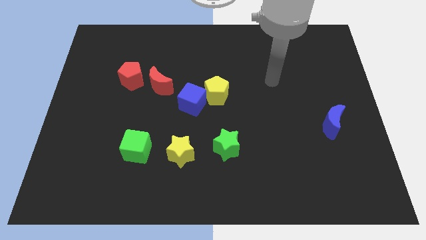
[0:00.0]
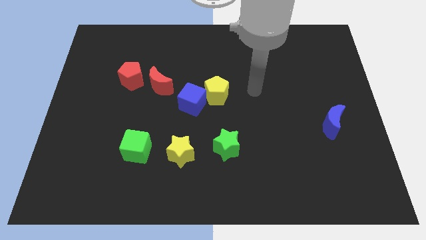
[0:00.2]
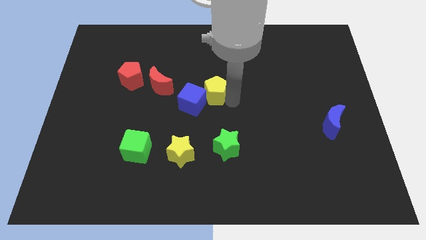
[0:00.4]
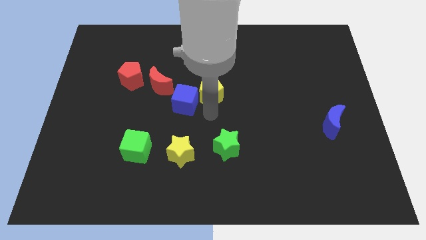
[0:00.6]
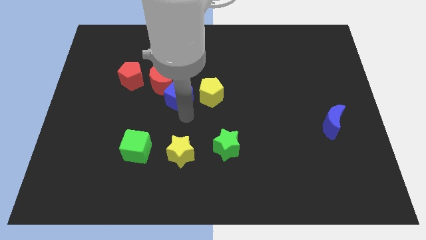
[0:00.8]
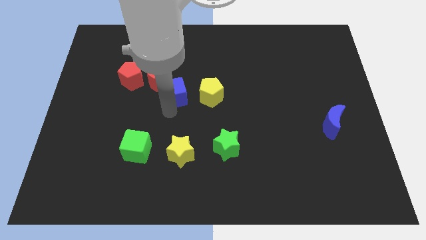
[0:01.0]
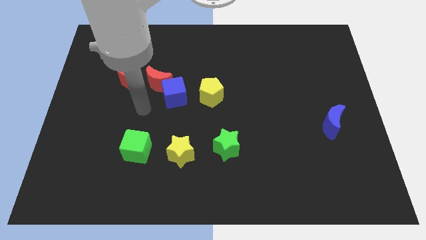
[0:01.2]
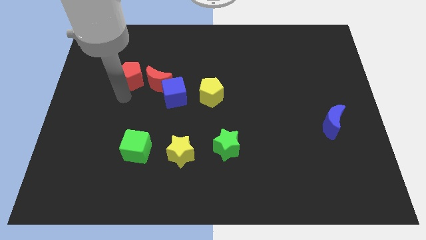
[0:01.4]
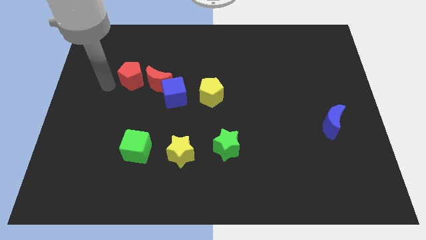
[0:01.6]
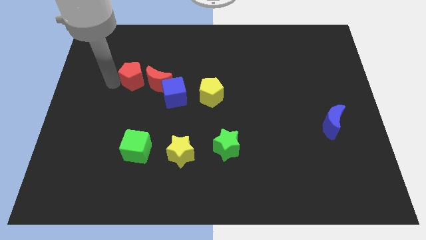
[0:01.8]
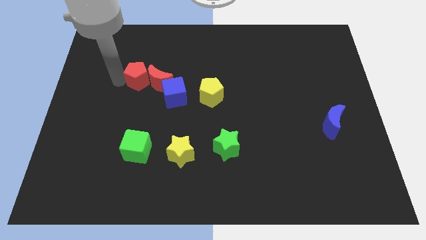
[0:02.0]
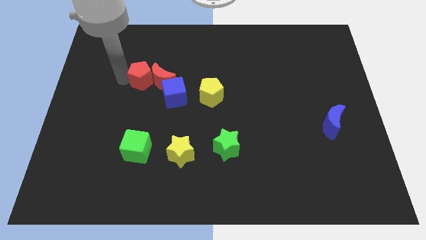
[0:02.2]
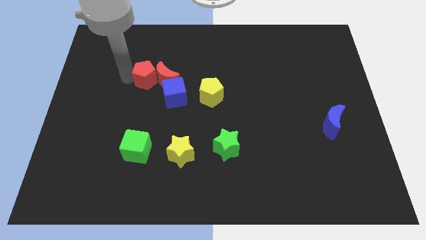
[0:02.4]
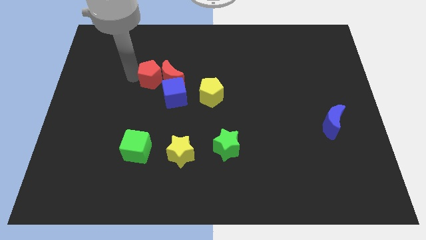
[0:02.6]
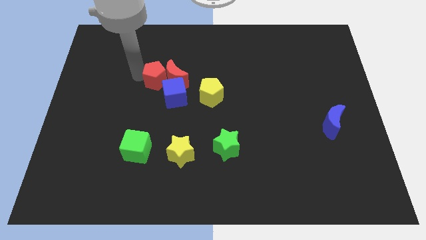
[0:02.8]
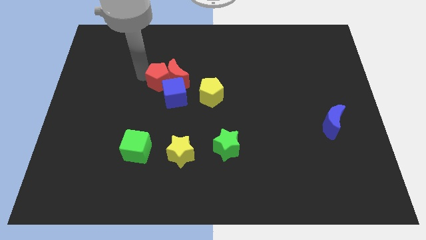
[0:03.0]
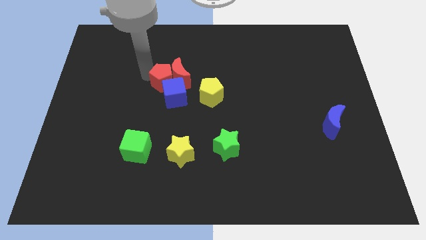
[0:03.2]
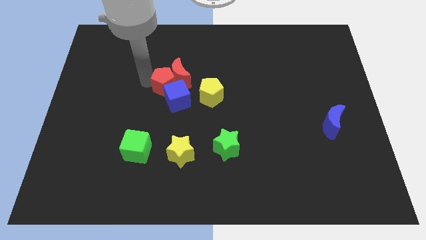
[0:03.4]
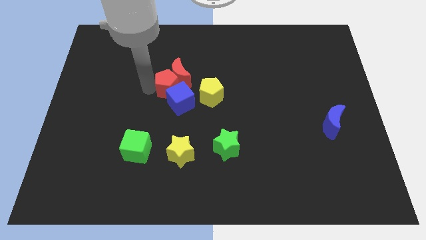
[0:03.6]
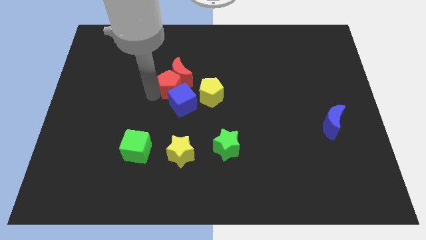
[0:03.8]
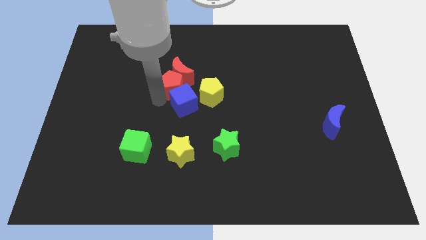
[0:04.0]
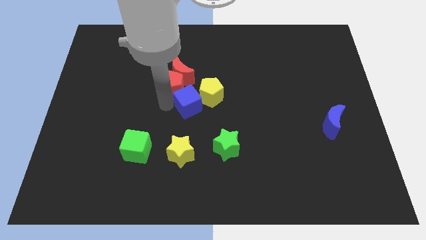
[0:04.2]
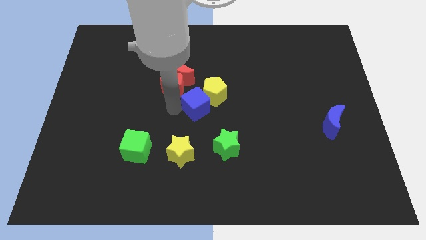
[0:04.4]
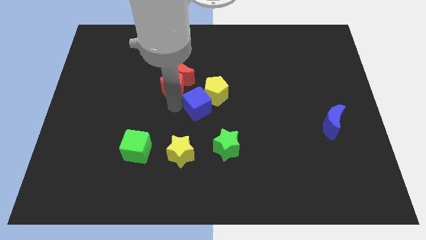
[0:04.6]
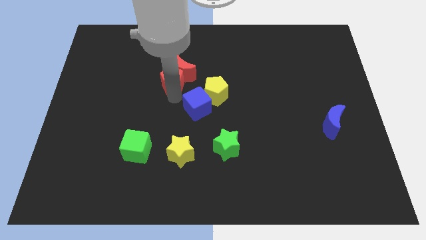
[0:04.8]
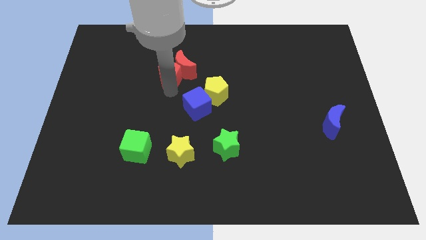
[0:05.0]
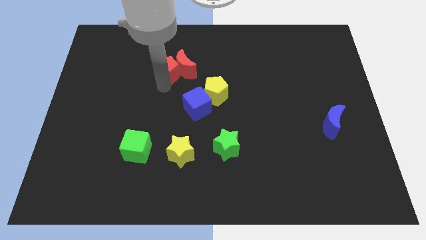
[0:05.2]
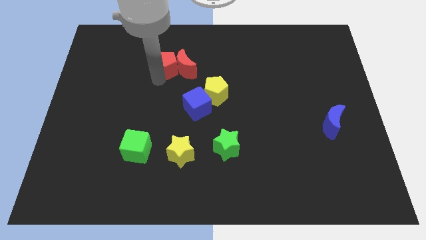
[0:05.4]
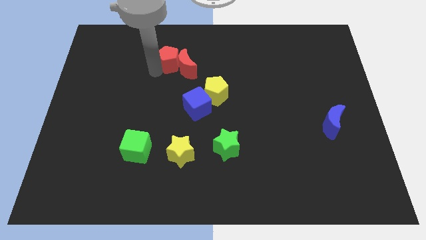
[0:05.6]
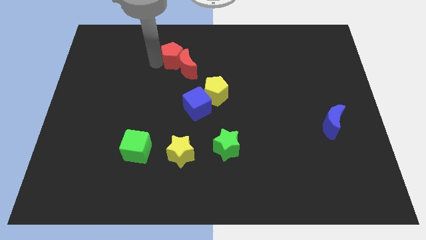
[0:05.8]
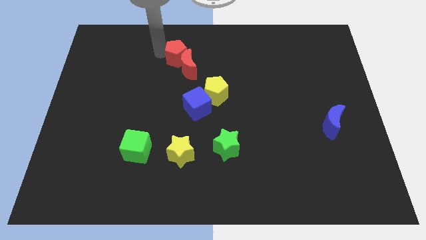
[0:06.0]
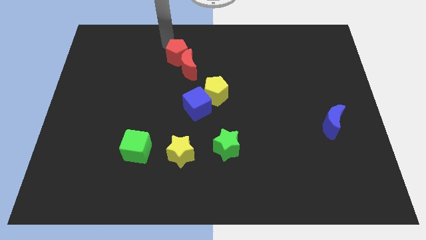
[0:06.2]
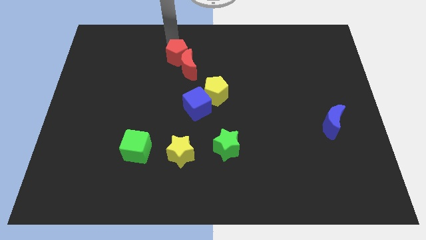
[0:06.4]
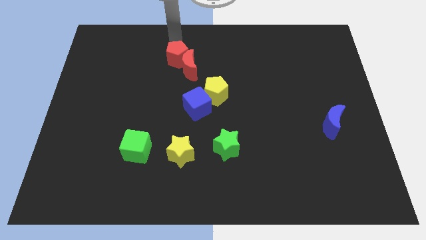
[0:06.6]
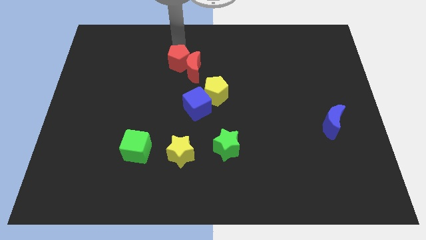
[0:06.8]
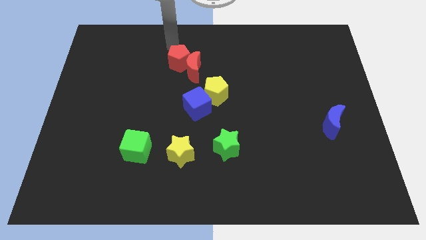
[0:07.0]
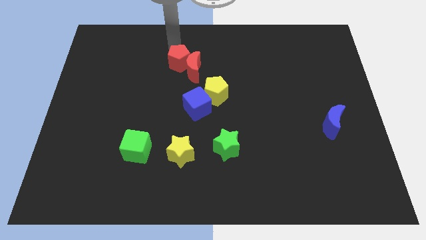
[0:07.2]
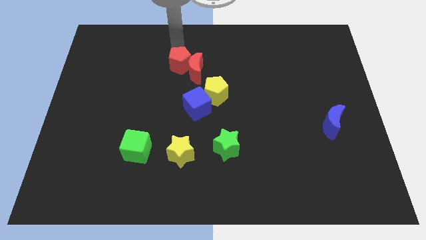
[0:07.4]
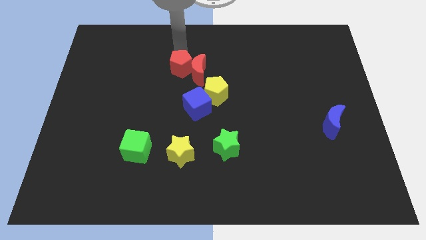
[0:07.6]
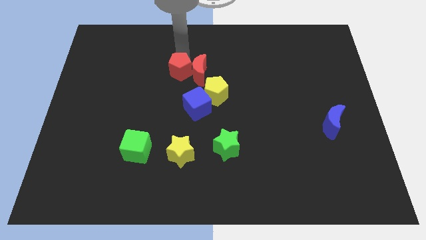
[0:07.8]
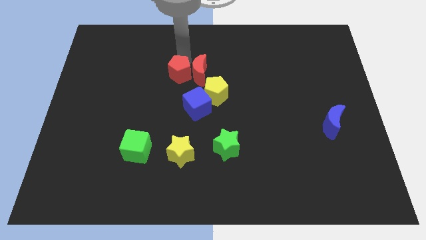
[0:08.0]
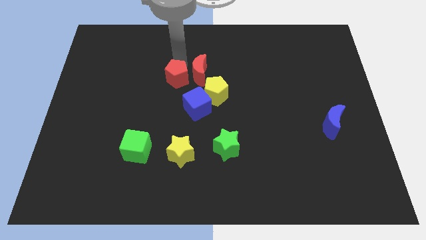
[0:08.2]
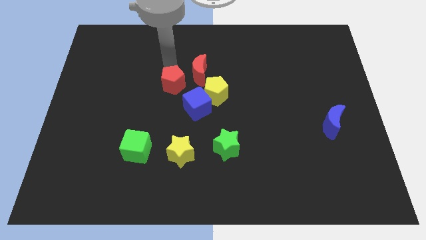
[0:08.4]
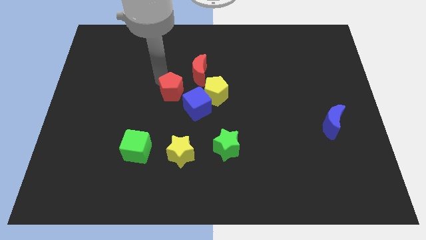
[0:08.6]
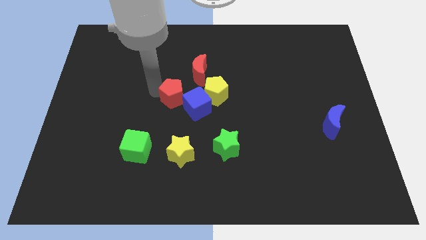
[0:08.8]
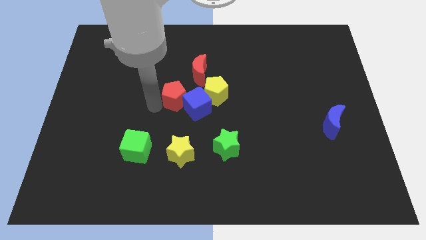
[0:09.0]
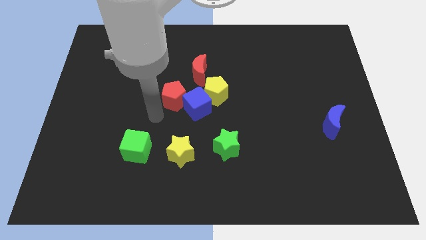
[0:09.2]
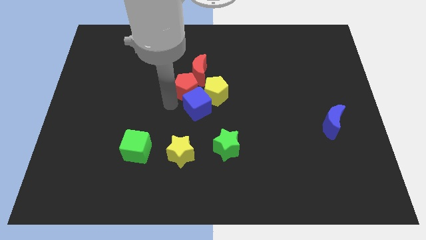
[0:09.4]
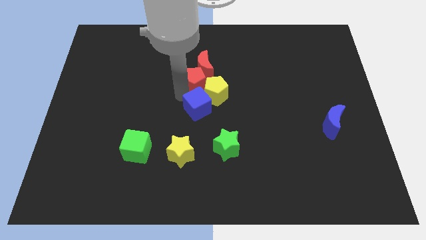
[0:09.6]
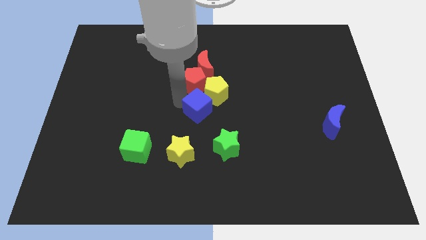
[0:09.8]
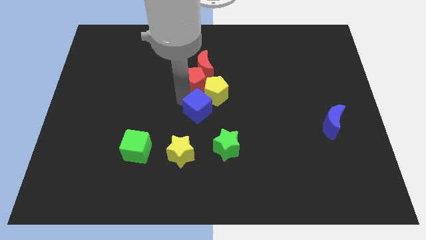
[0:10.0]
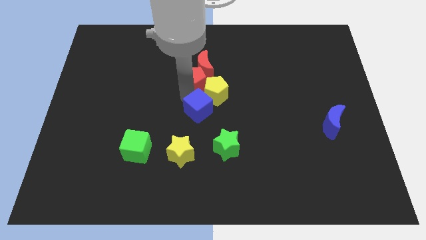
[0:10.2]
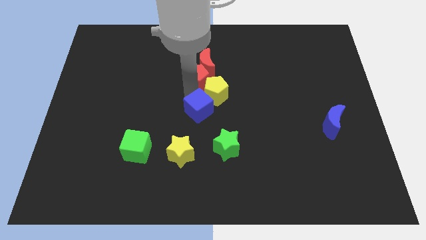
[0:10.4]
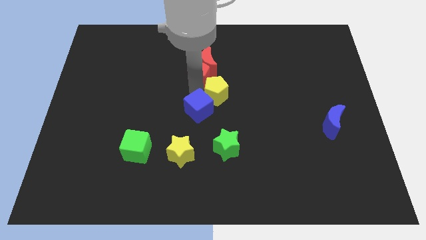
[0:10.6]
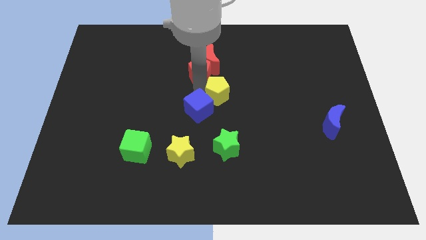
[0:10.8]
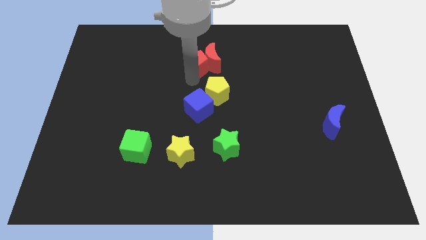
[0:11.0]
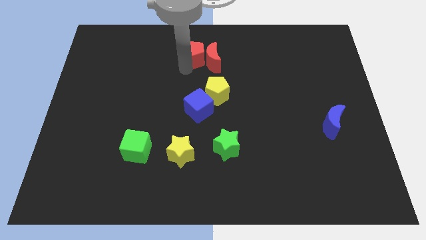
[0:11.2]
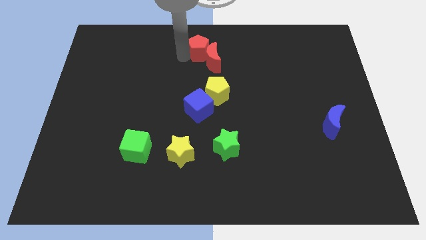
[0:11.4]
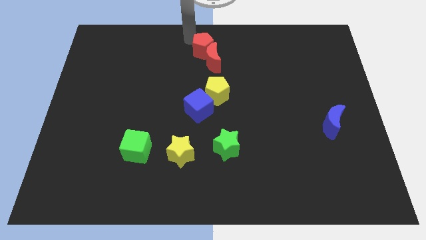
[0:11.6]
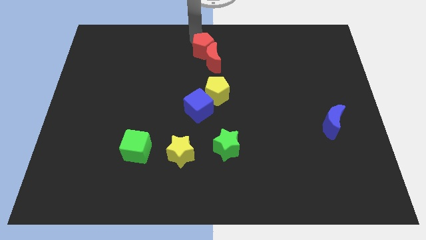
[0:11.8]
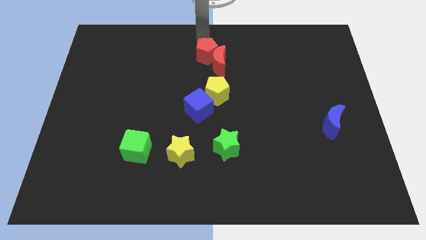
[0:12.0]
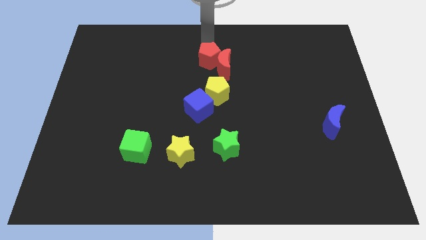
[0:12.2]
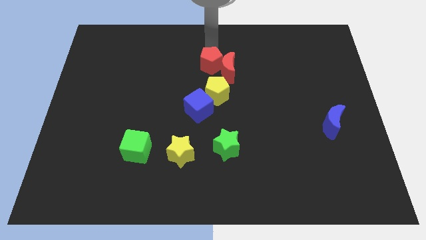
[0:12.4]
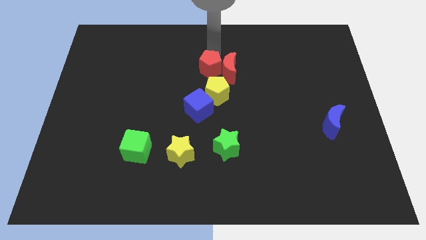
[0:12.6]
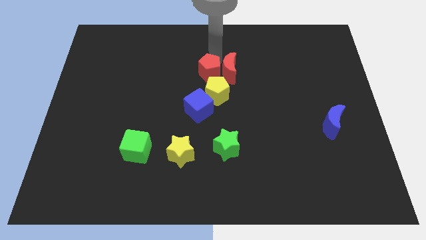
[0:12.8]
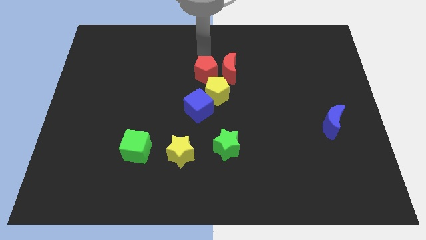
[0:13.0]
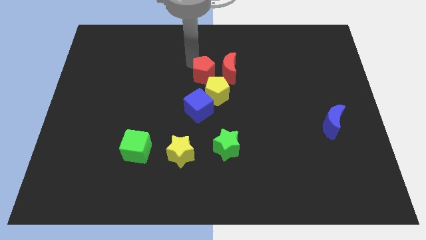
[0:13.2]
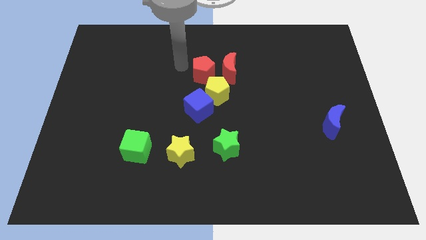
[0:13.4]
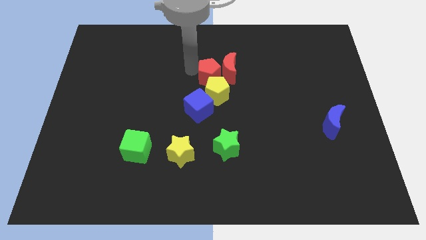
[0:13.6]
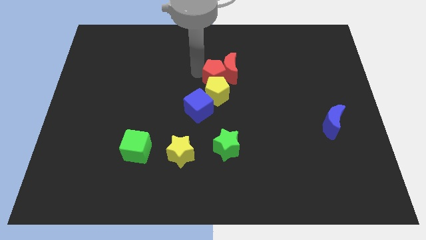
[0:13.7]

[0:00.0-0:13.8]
push the red pentagon right

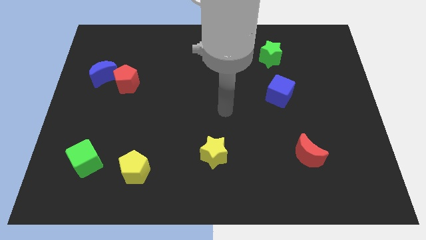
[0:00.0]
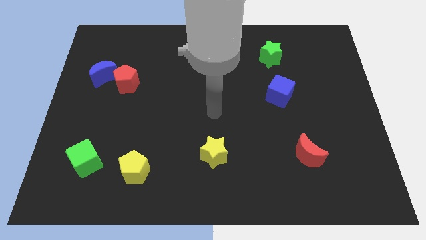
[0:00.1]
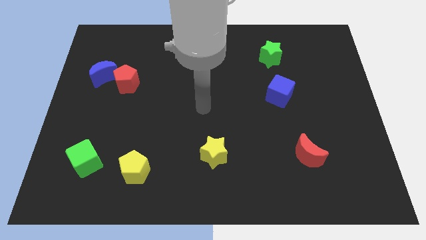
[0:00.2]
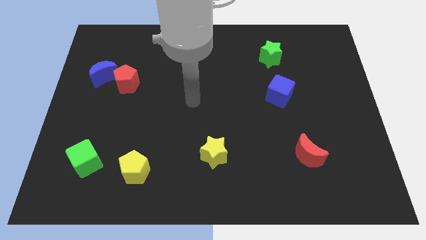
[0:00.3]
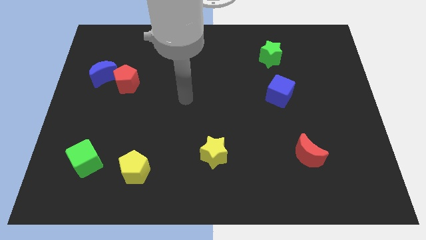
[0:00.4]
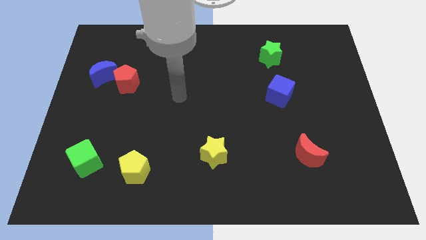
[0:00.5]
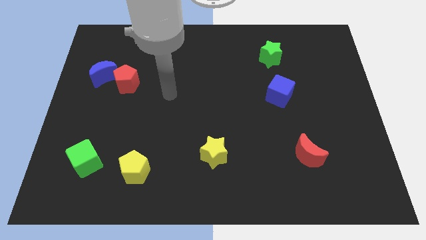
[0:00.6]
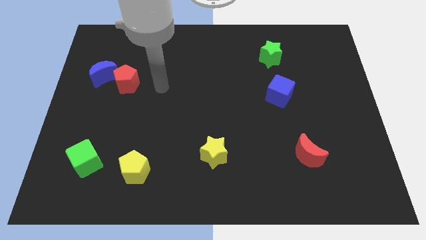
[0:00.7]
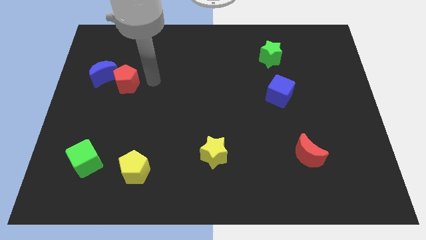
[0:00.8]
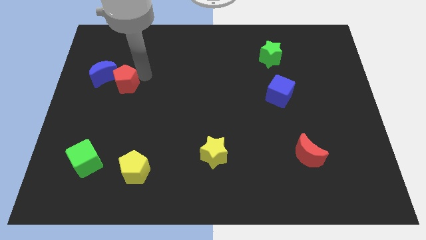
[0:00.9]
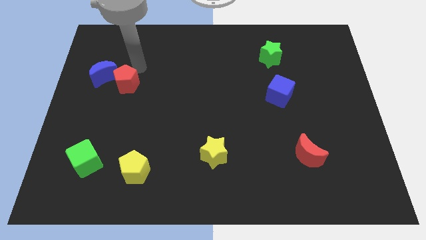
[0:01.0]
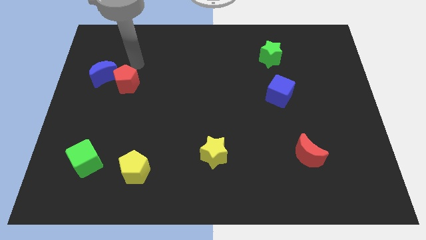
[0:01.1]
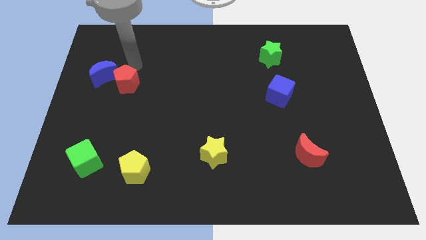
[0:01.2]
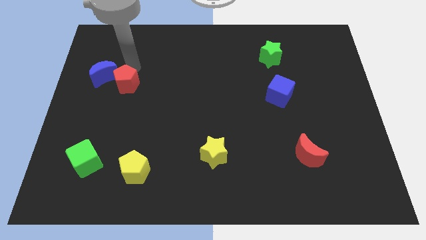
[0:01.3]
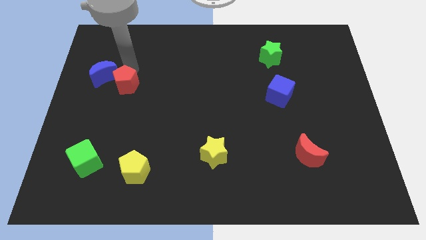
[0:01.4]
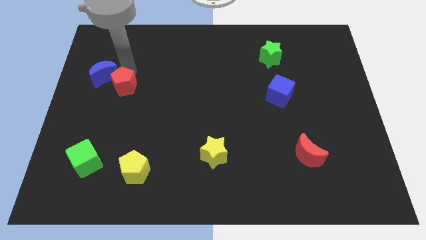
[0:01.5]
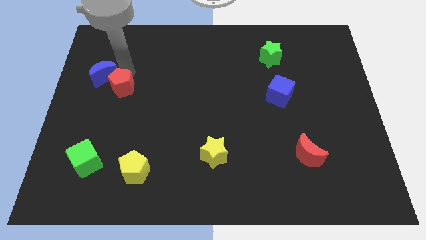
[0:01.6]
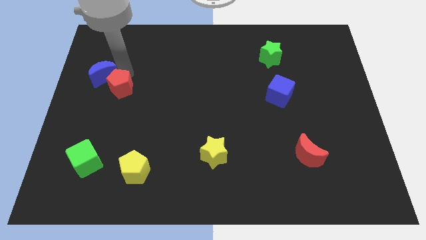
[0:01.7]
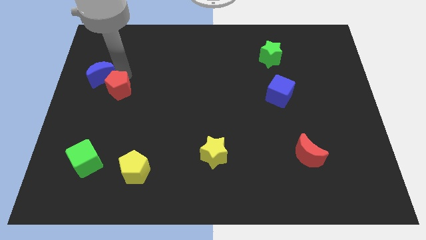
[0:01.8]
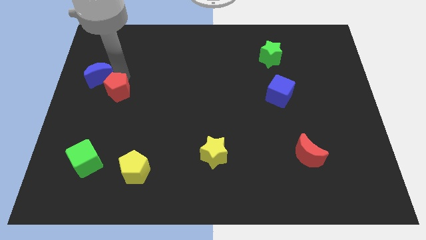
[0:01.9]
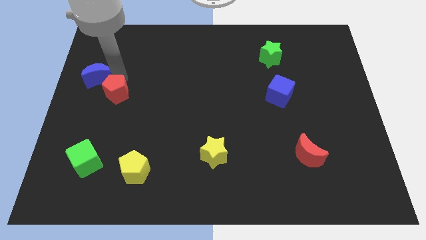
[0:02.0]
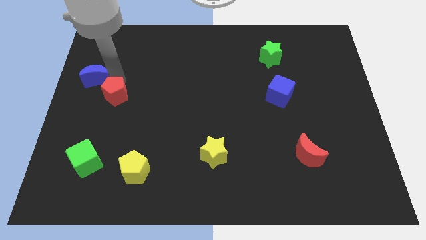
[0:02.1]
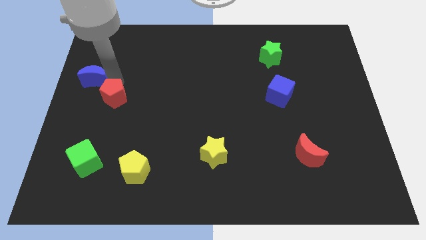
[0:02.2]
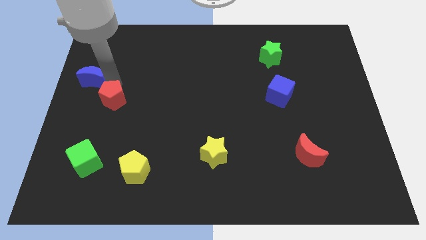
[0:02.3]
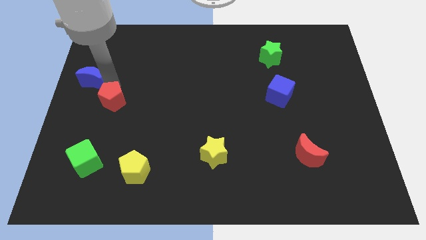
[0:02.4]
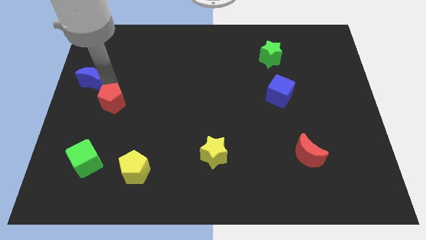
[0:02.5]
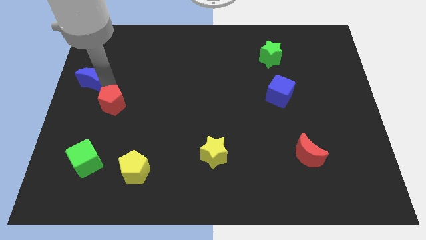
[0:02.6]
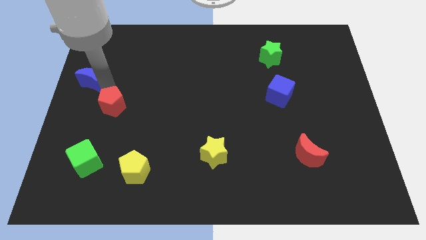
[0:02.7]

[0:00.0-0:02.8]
slide the red pentagon downwards a bit
